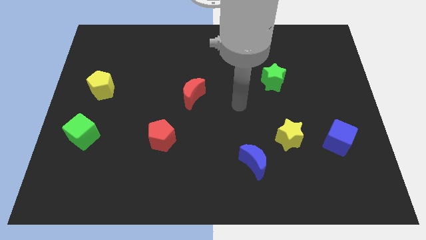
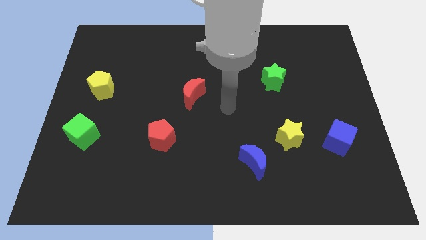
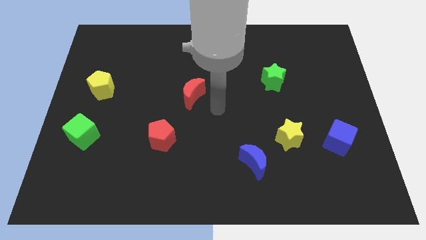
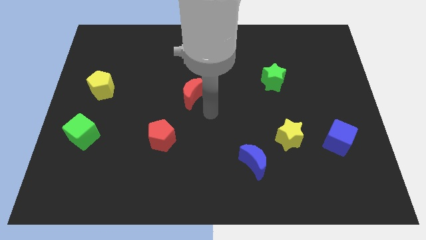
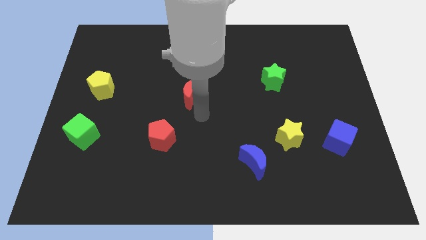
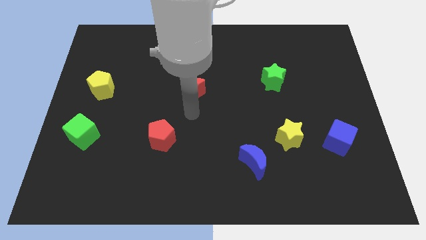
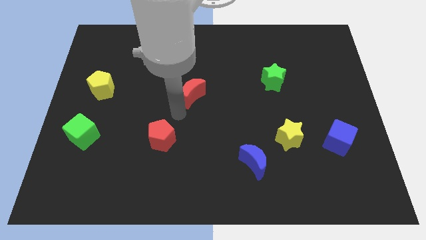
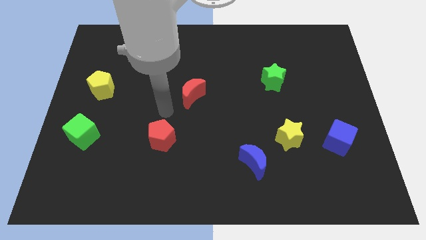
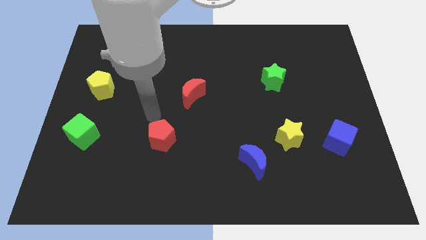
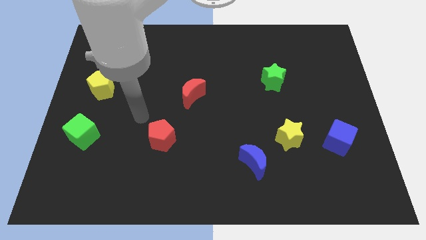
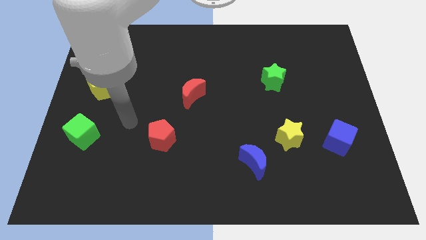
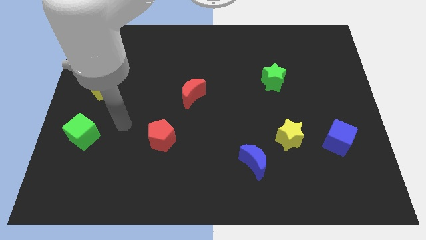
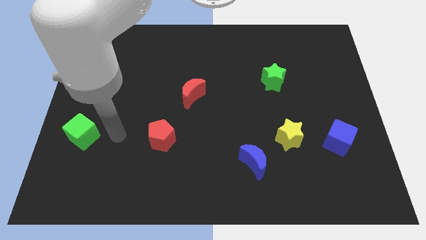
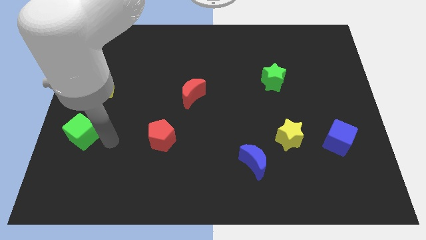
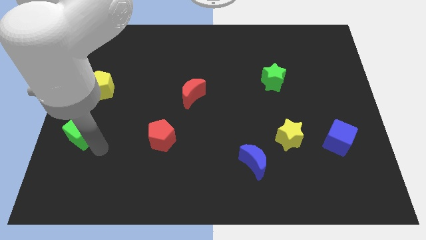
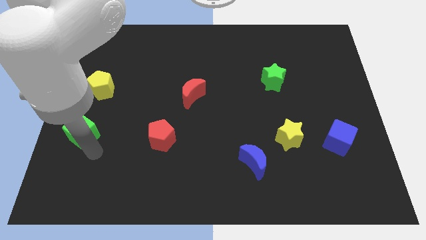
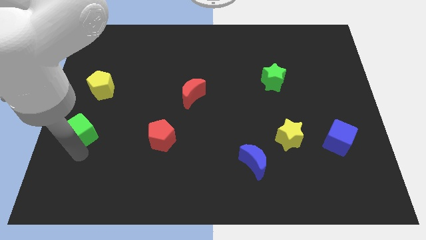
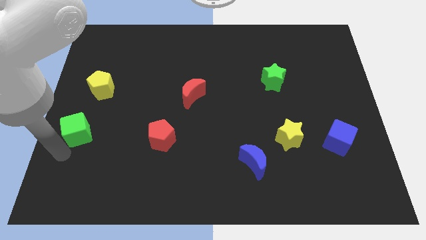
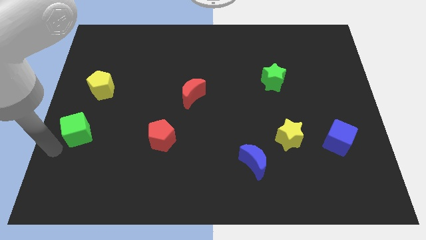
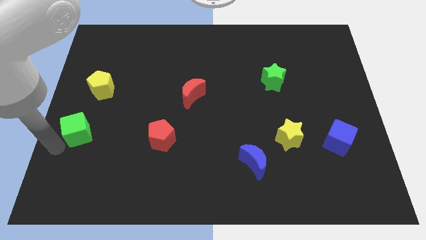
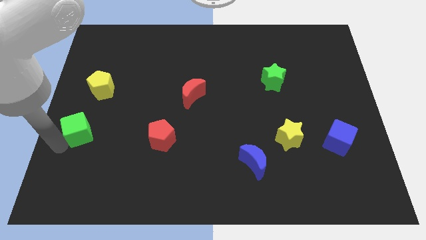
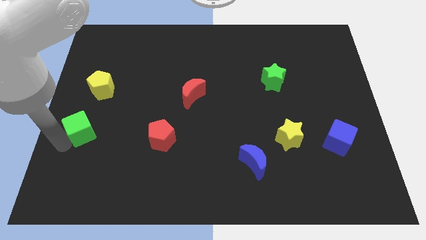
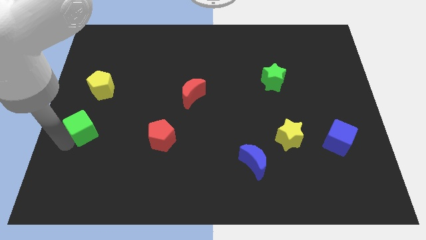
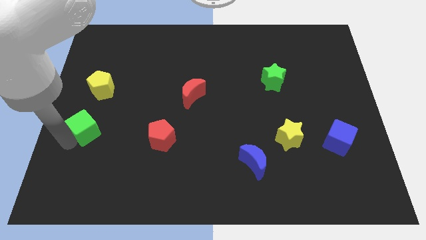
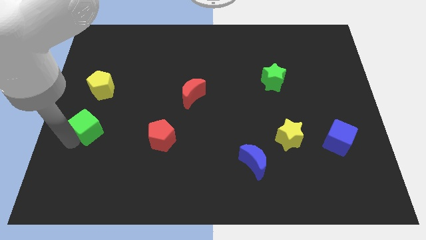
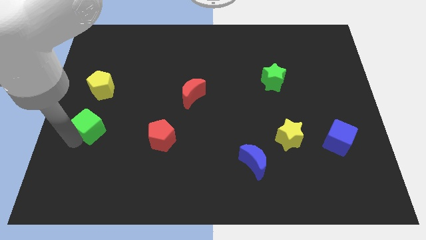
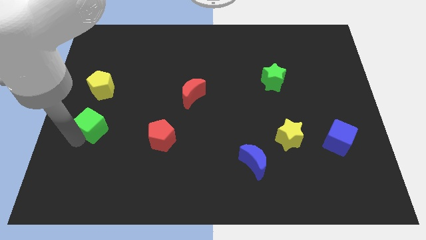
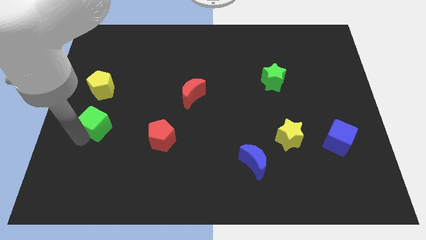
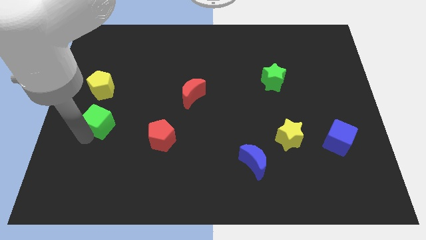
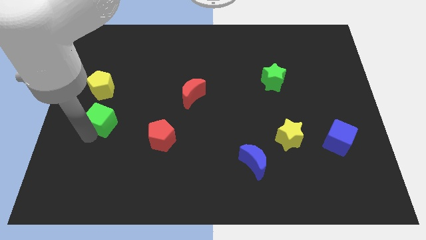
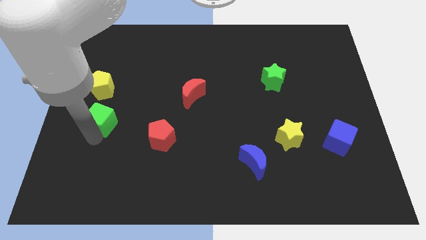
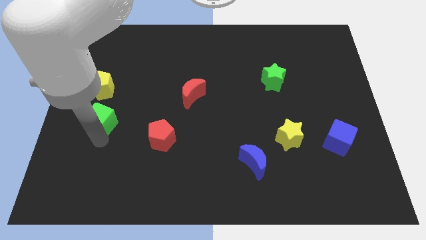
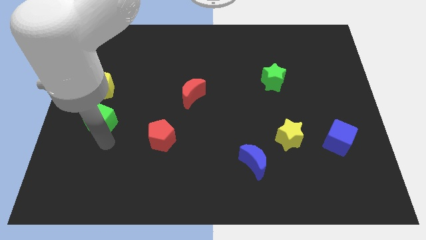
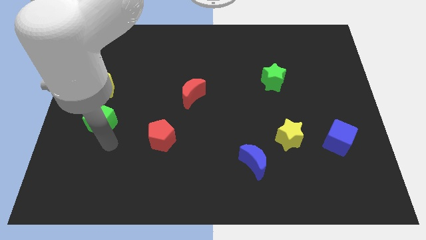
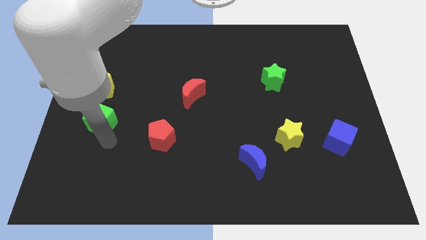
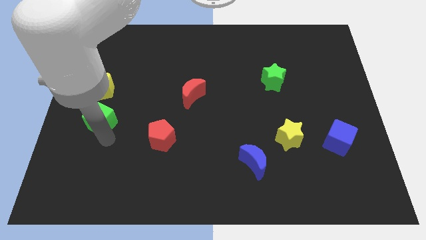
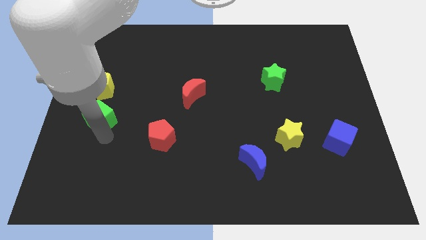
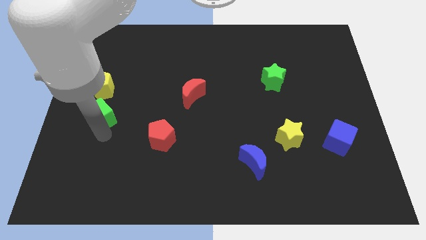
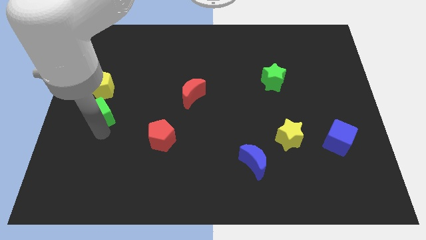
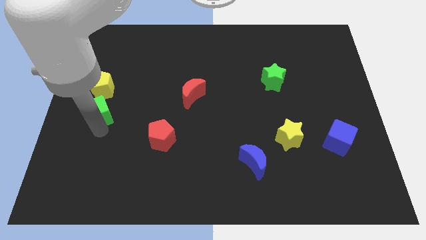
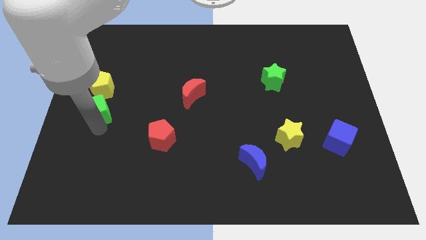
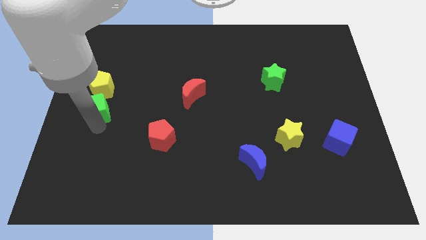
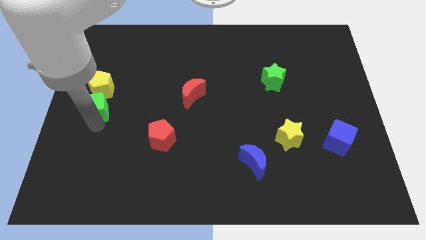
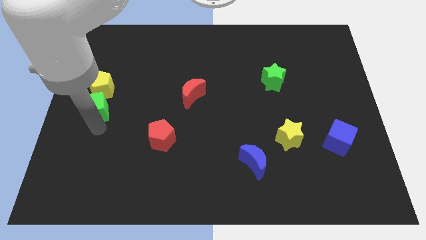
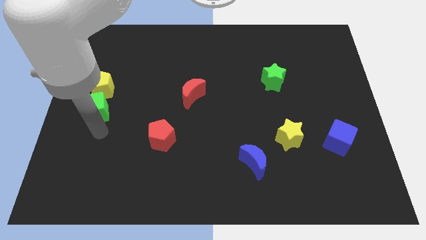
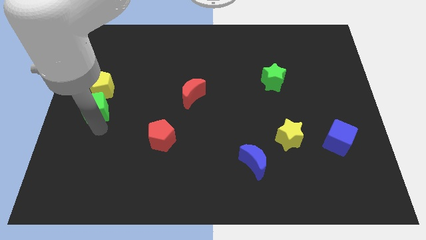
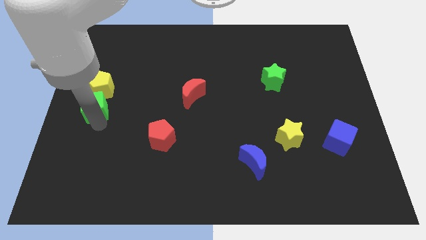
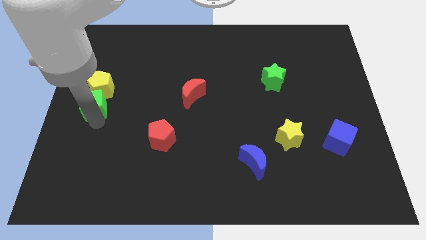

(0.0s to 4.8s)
slide the green cube towards the yellow pentagon

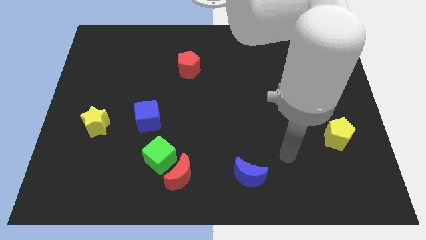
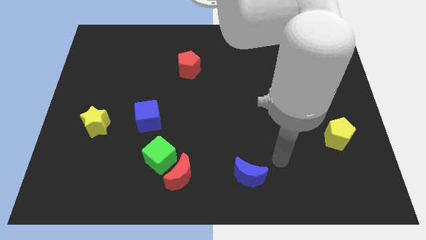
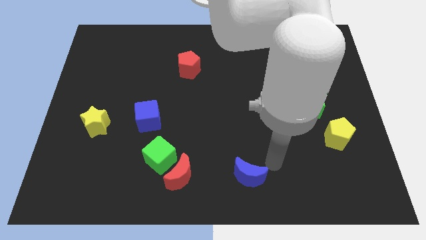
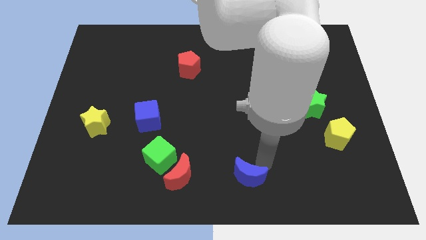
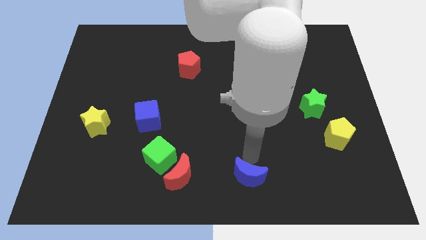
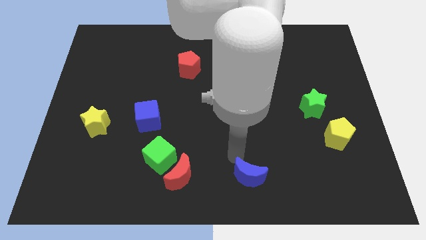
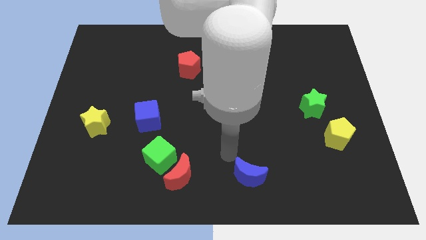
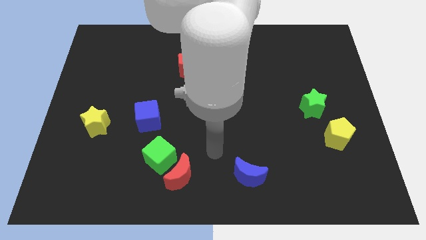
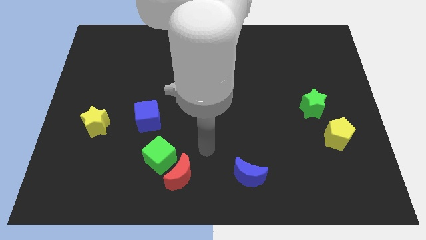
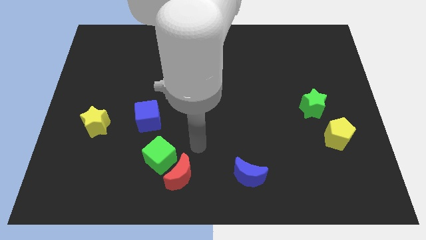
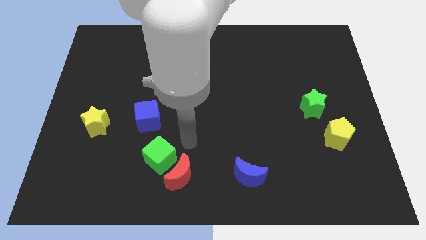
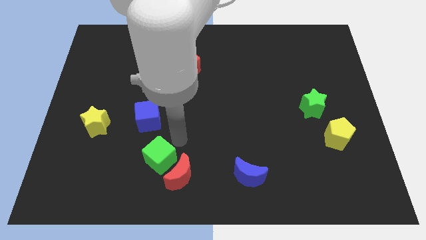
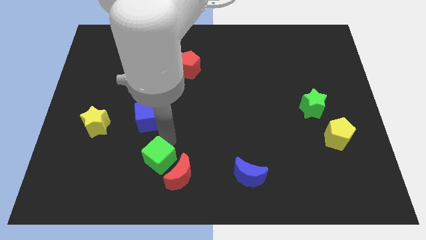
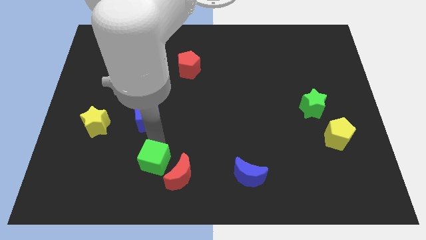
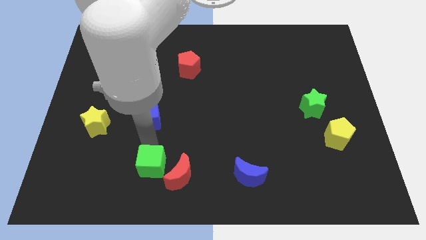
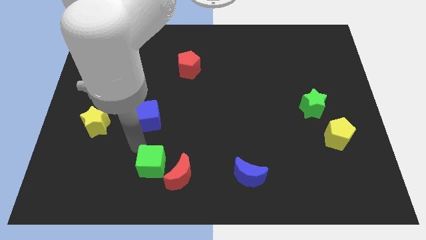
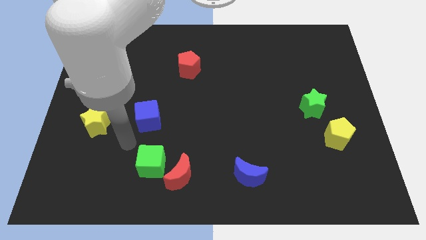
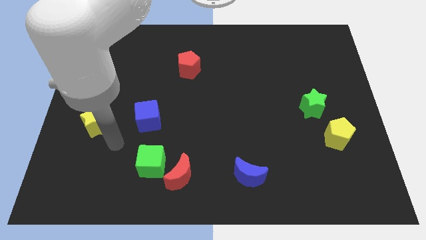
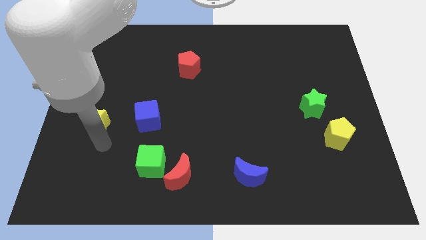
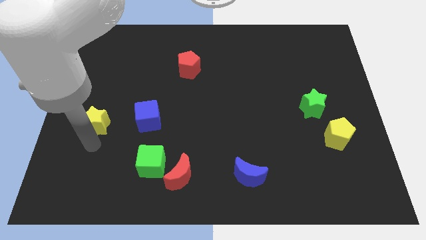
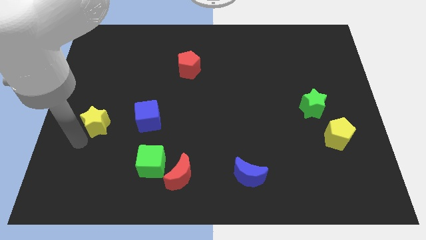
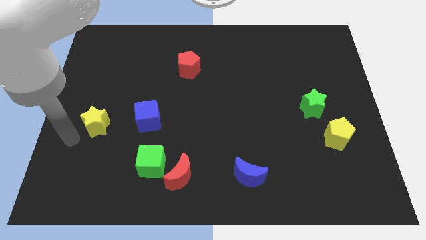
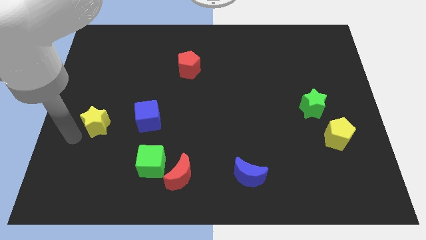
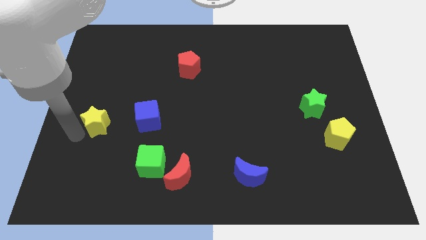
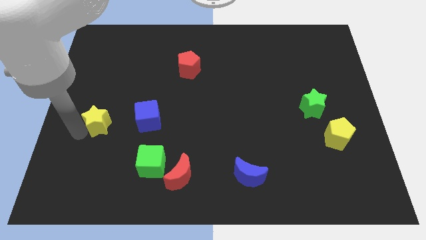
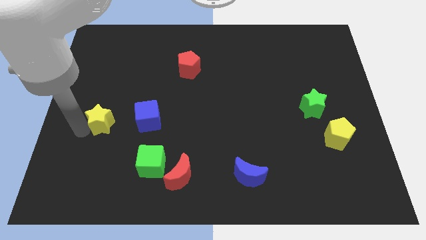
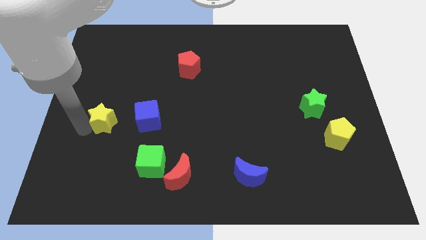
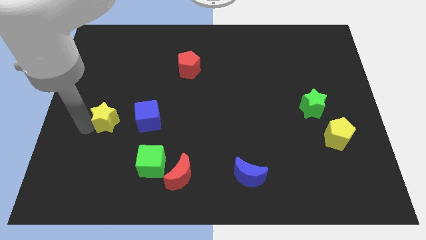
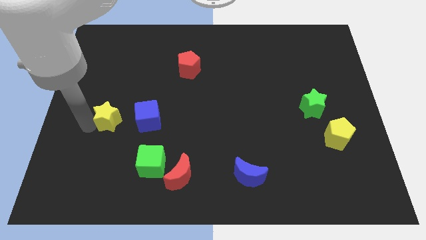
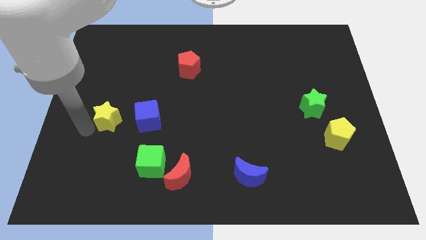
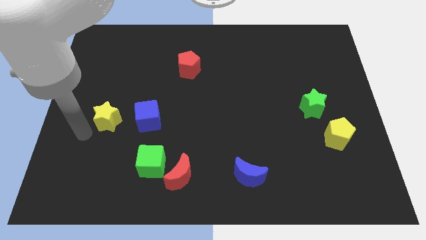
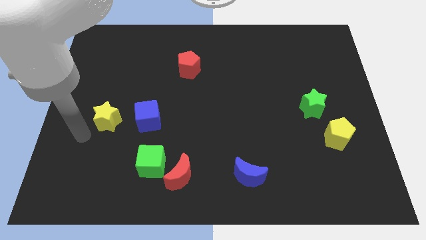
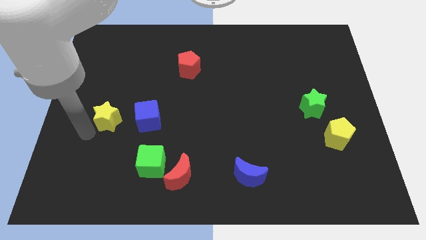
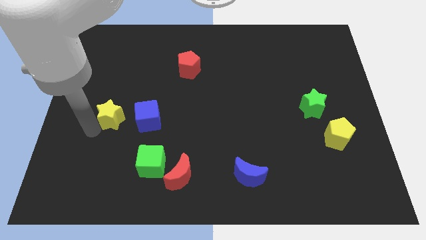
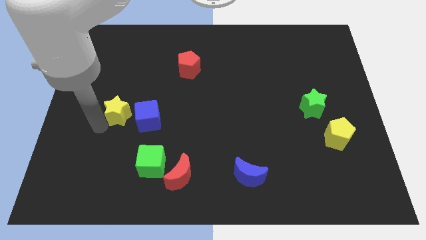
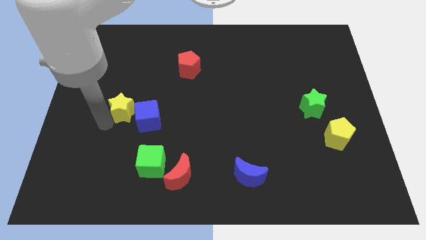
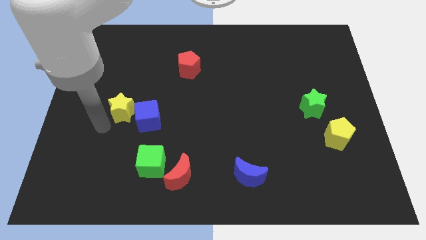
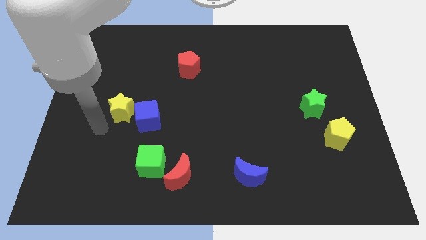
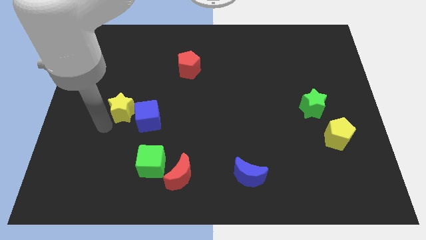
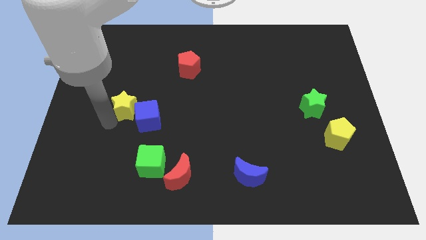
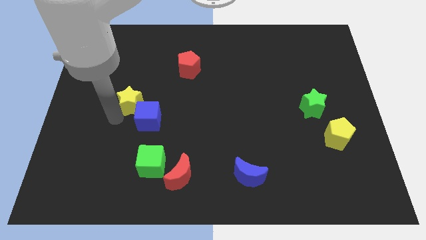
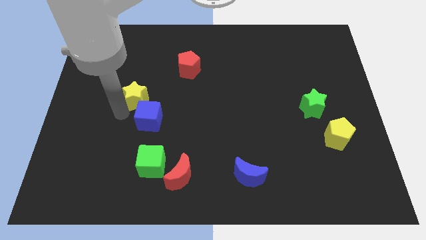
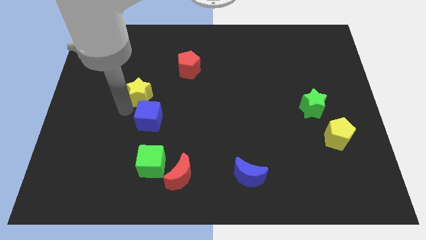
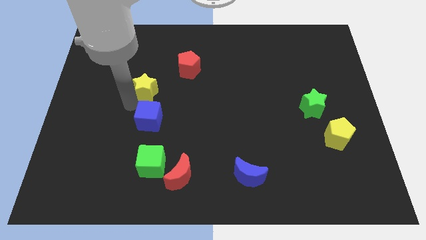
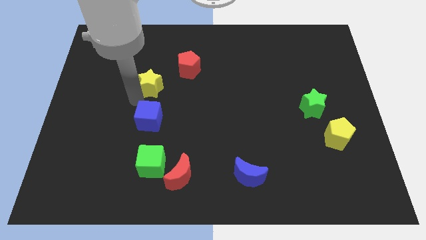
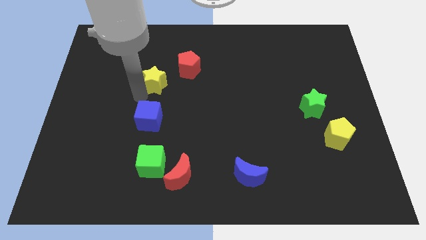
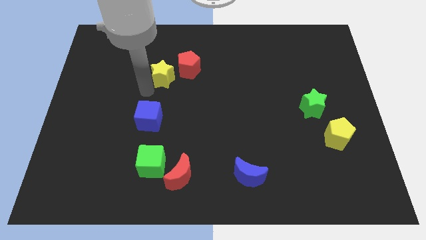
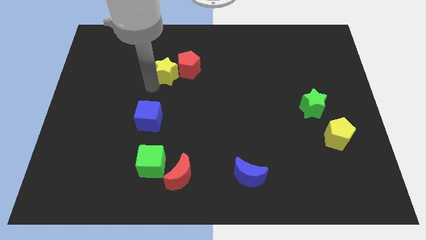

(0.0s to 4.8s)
slide the yellow star next to the red pentagon
